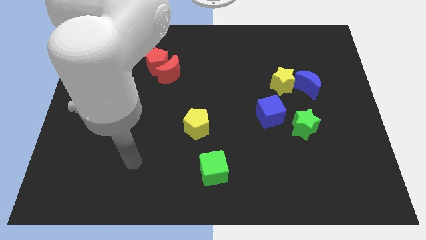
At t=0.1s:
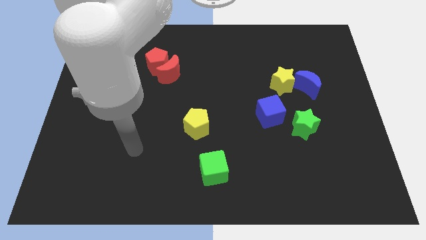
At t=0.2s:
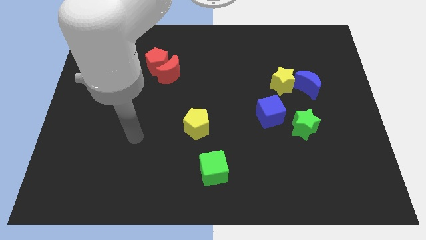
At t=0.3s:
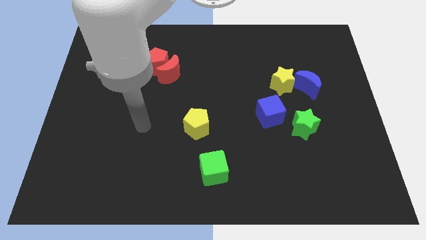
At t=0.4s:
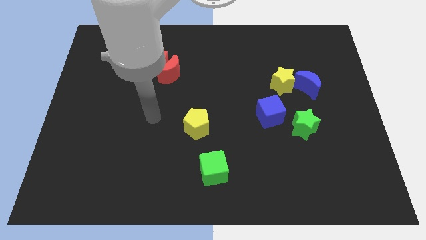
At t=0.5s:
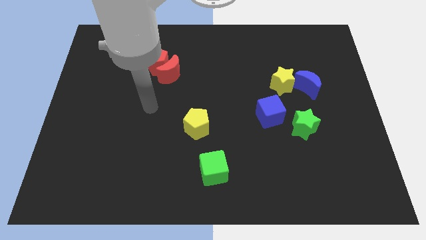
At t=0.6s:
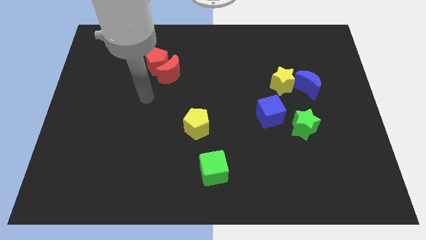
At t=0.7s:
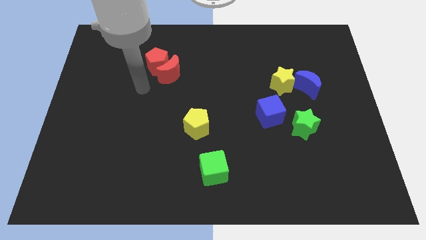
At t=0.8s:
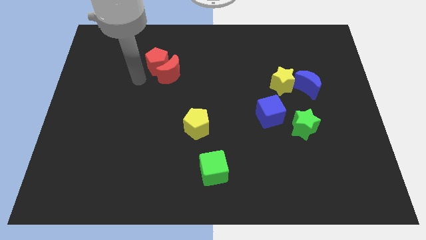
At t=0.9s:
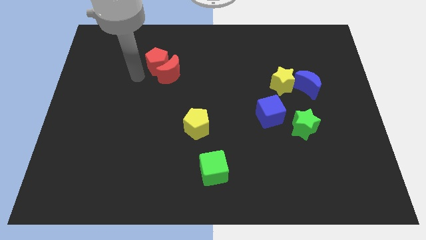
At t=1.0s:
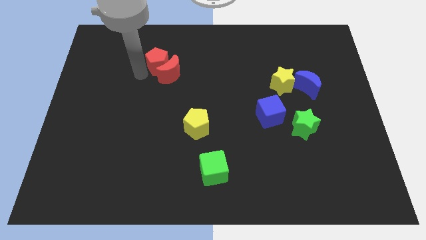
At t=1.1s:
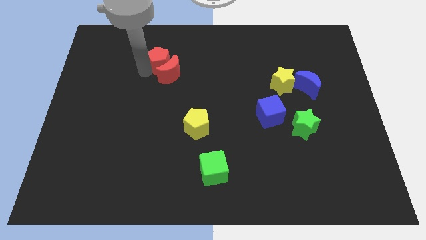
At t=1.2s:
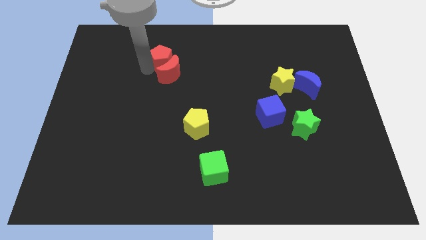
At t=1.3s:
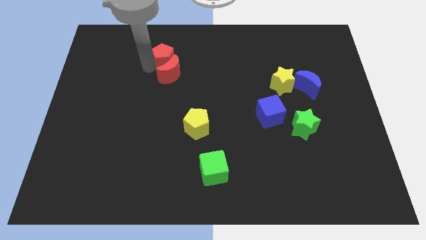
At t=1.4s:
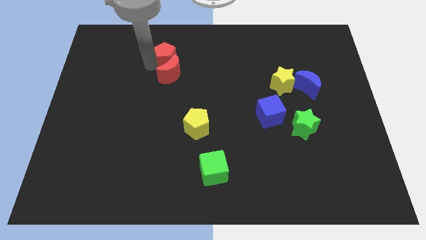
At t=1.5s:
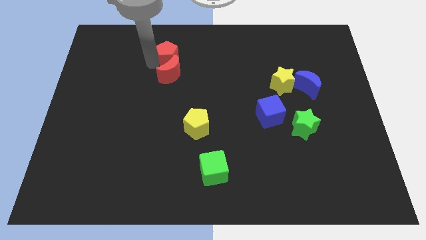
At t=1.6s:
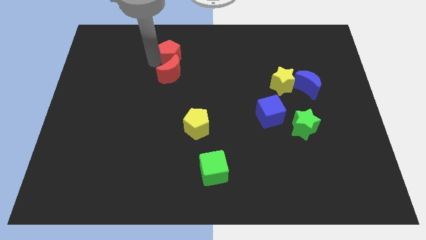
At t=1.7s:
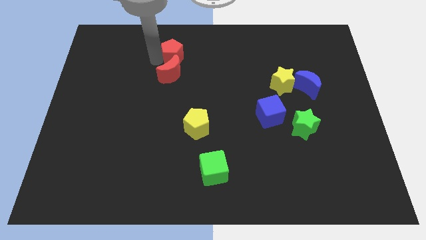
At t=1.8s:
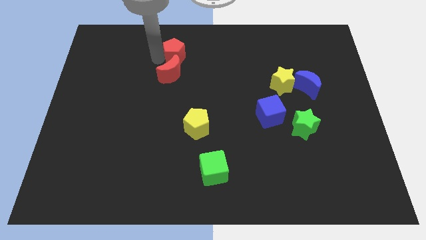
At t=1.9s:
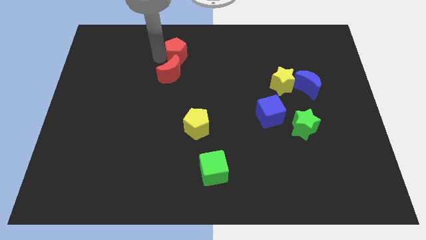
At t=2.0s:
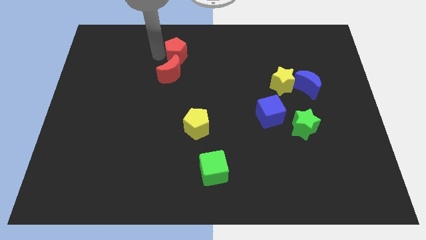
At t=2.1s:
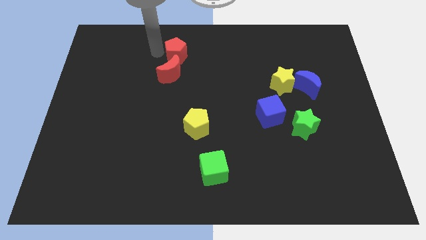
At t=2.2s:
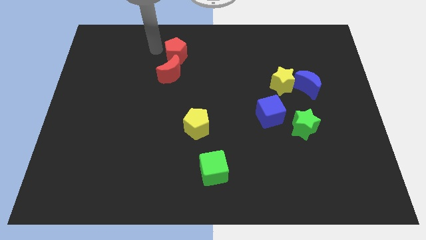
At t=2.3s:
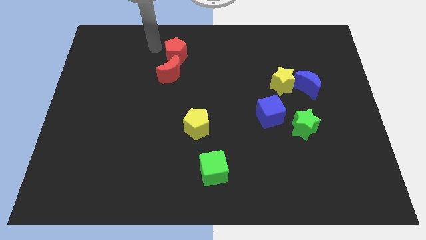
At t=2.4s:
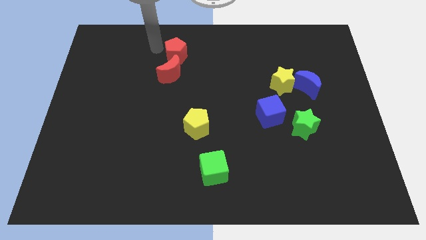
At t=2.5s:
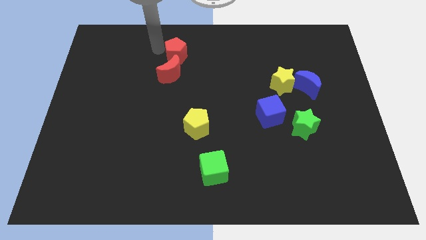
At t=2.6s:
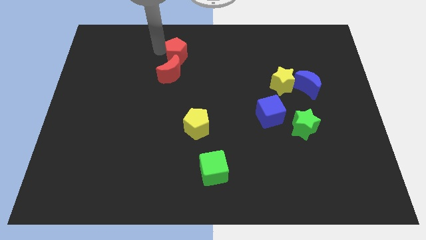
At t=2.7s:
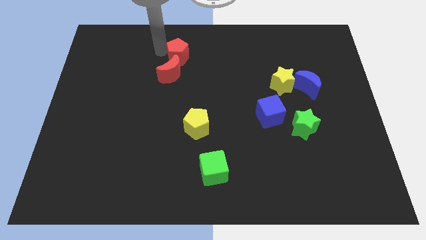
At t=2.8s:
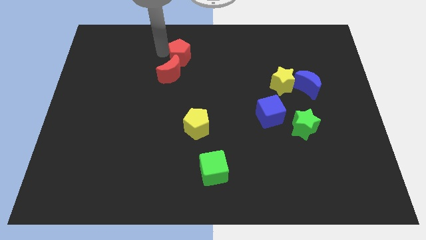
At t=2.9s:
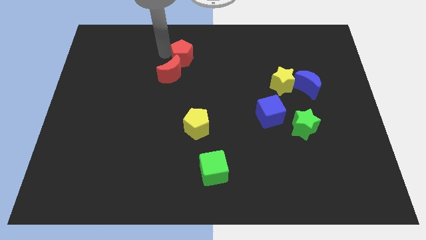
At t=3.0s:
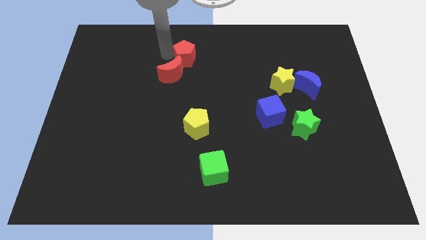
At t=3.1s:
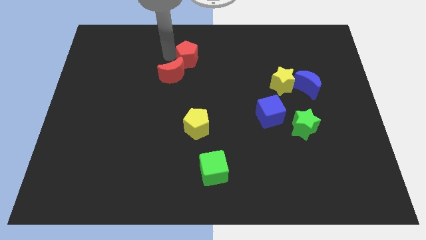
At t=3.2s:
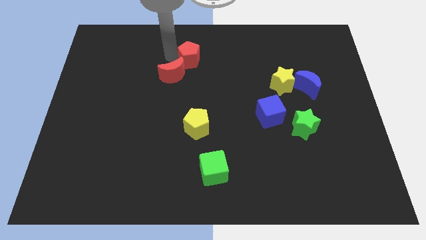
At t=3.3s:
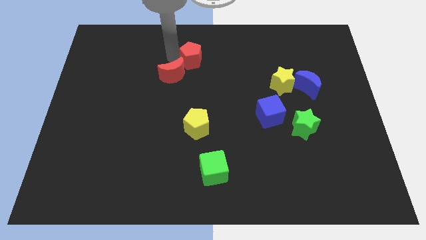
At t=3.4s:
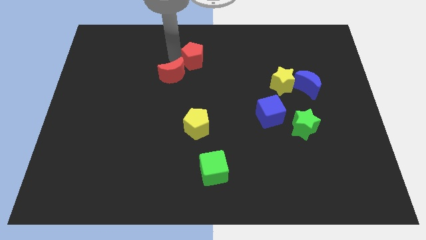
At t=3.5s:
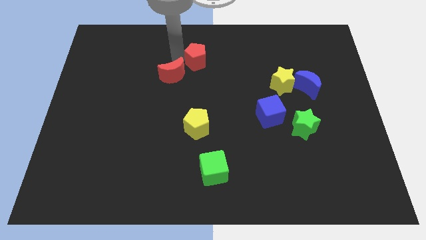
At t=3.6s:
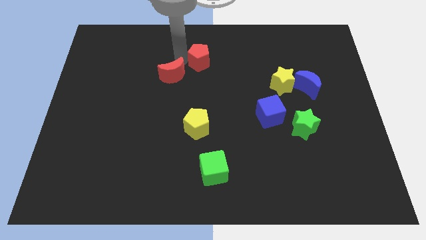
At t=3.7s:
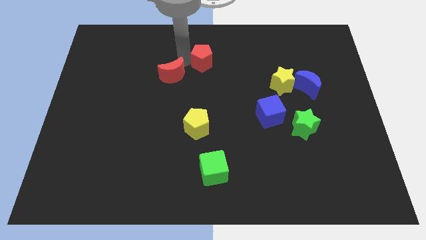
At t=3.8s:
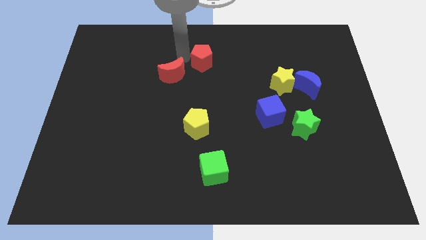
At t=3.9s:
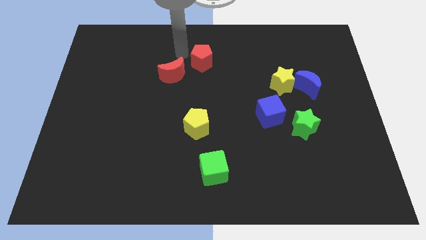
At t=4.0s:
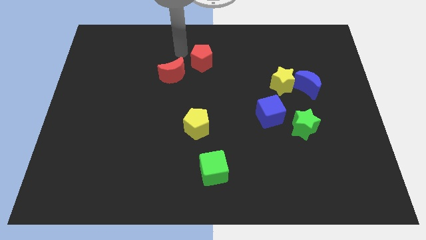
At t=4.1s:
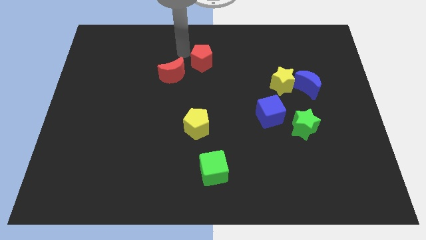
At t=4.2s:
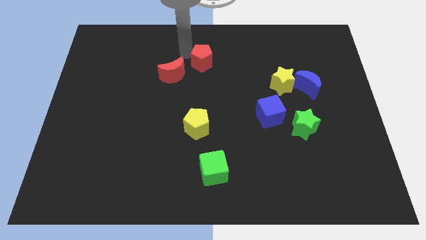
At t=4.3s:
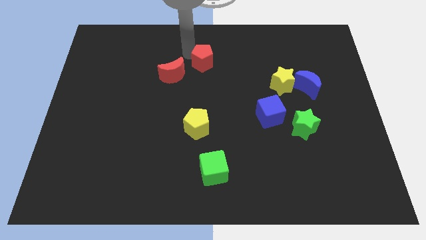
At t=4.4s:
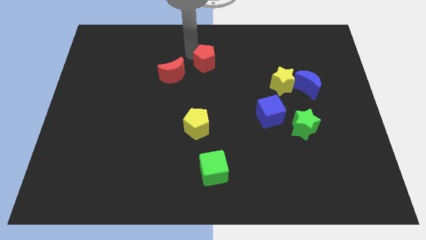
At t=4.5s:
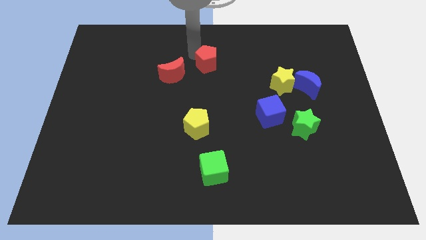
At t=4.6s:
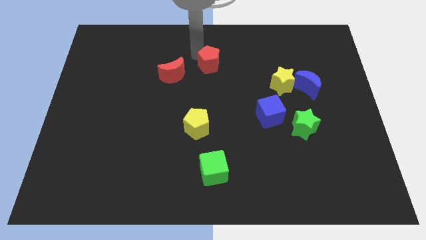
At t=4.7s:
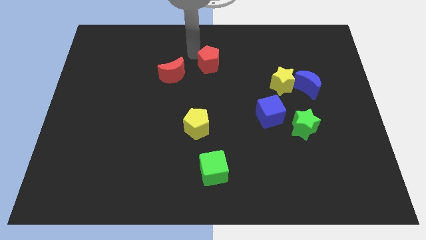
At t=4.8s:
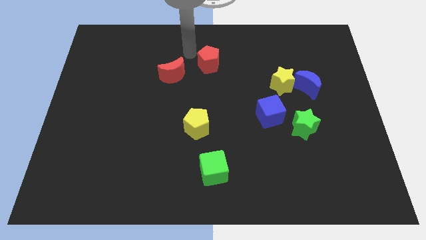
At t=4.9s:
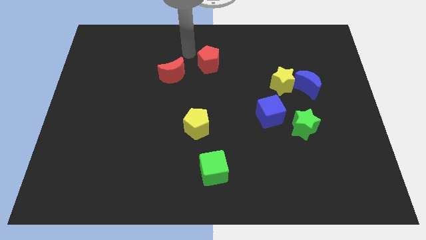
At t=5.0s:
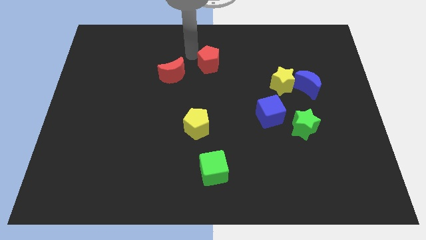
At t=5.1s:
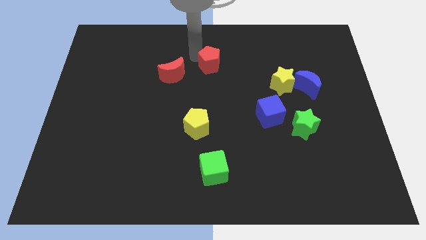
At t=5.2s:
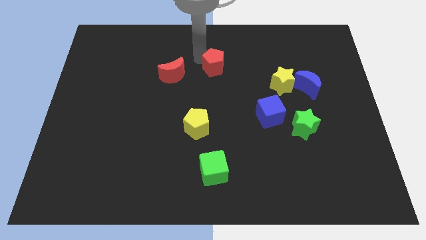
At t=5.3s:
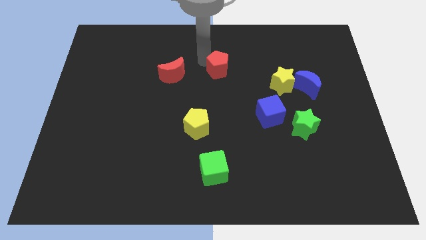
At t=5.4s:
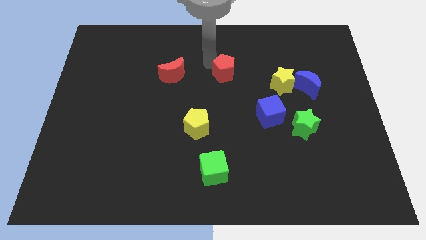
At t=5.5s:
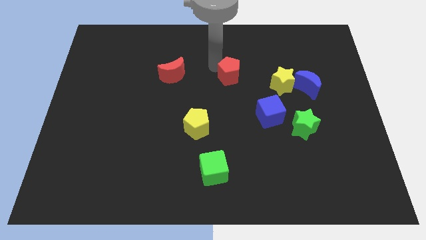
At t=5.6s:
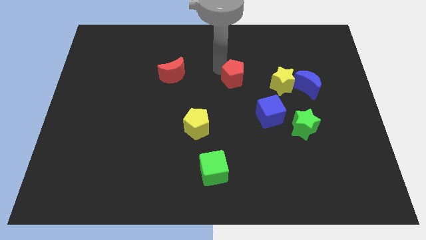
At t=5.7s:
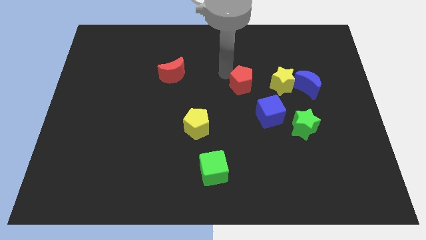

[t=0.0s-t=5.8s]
push the red pentagon left of the blue moon
